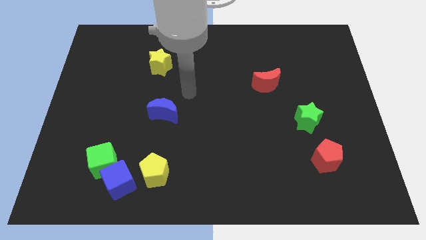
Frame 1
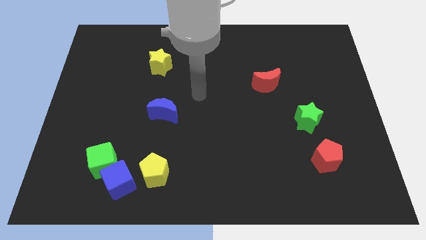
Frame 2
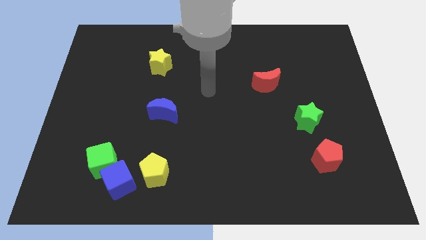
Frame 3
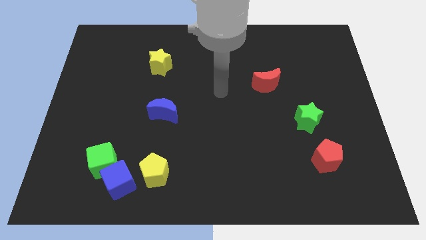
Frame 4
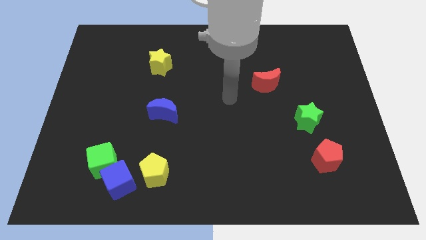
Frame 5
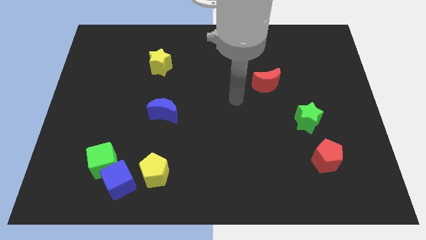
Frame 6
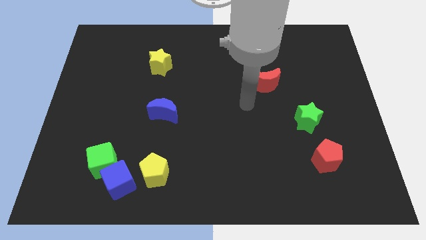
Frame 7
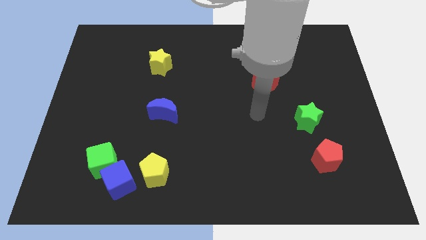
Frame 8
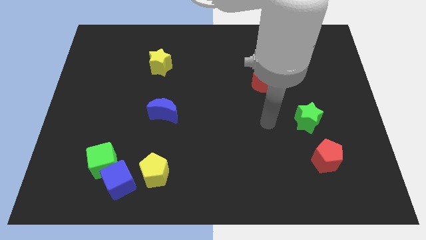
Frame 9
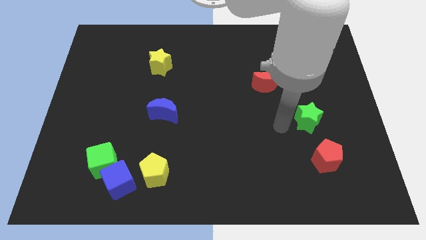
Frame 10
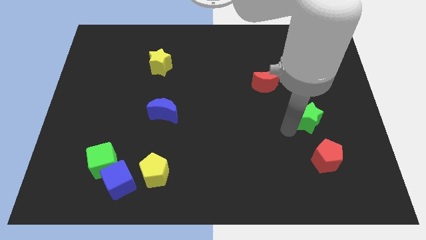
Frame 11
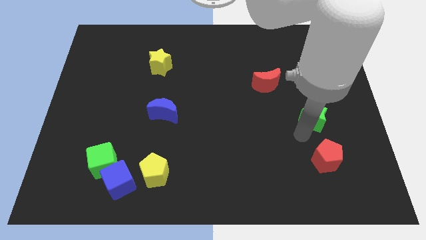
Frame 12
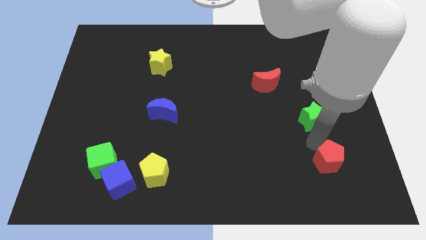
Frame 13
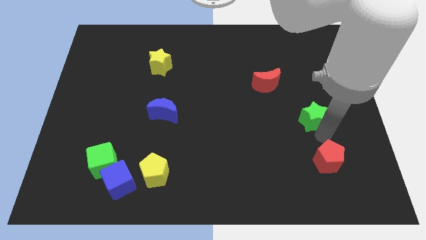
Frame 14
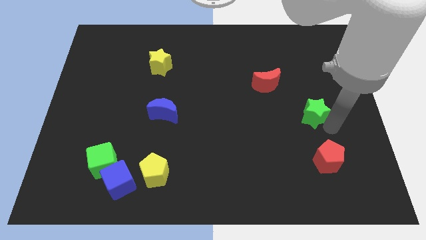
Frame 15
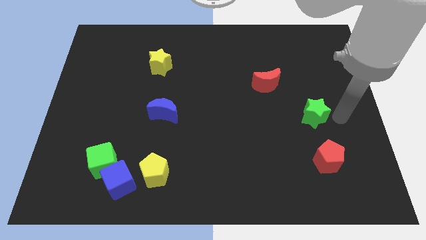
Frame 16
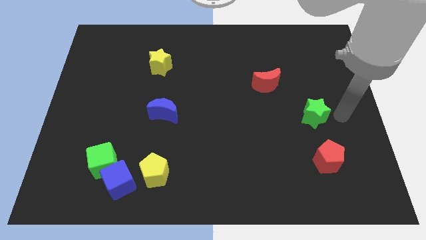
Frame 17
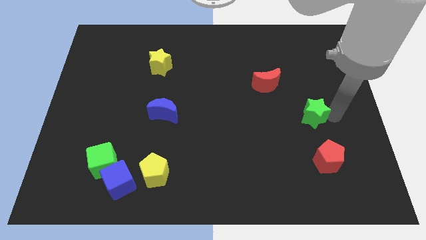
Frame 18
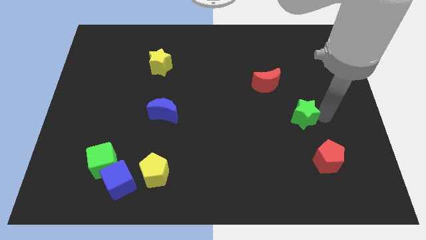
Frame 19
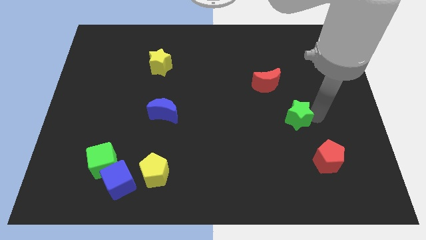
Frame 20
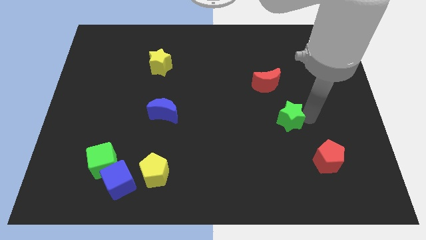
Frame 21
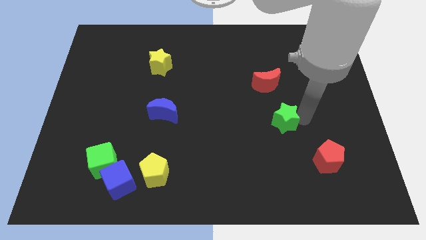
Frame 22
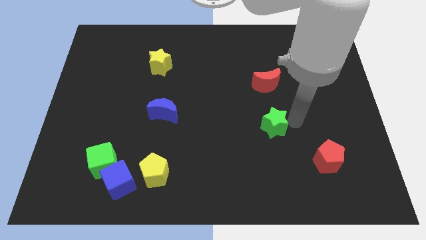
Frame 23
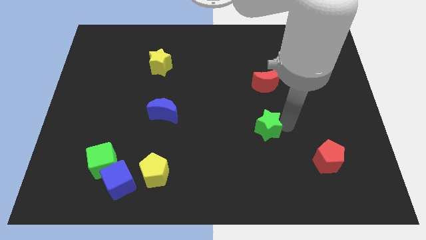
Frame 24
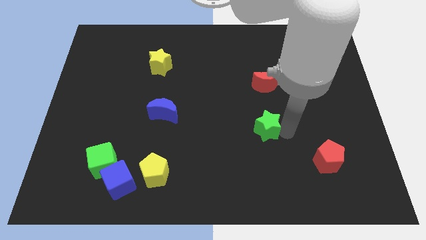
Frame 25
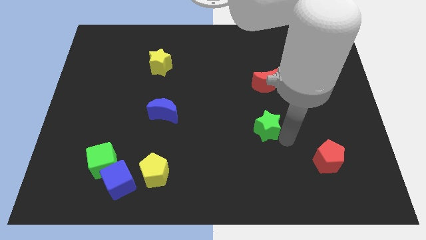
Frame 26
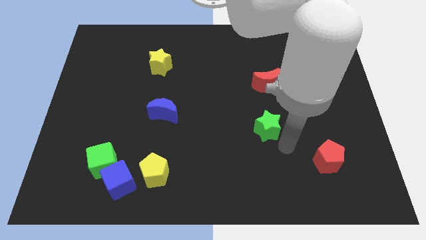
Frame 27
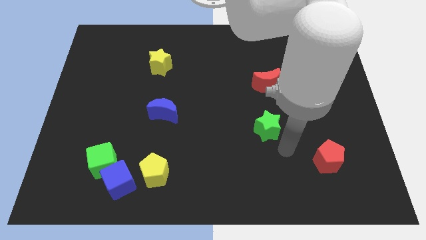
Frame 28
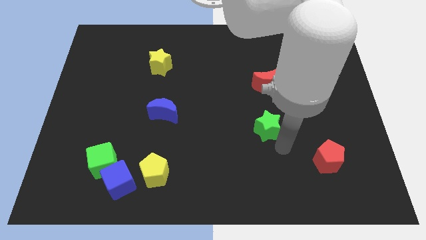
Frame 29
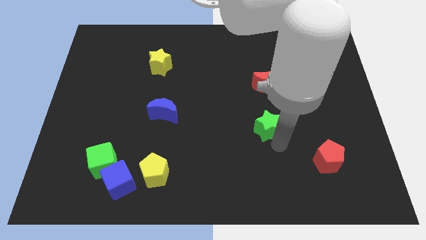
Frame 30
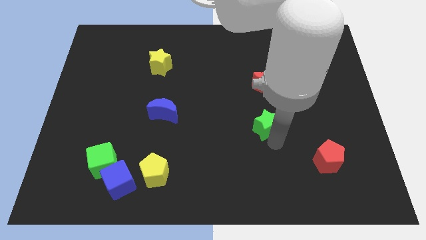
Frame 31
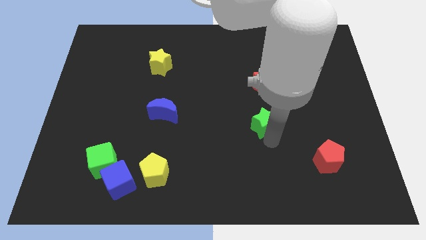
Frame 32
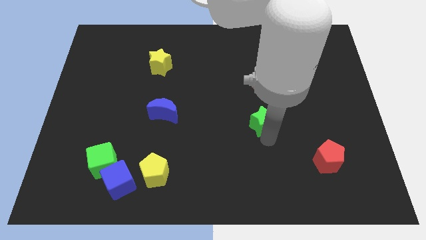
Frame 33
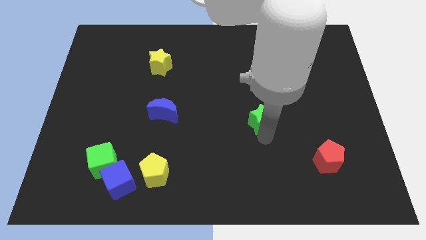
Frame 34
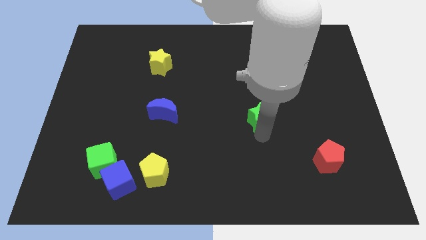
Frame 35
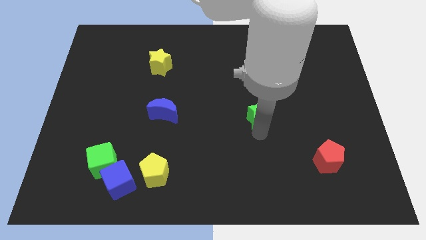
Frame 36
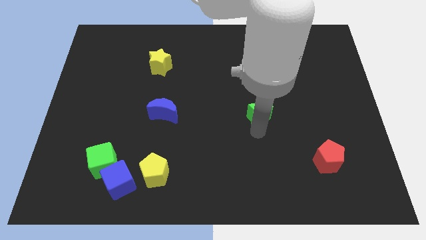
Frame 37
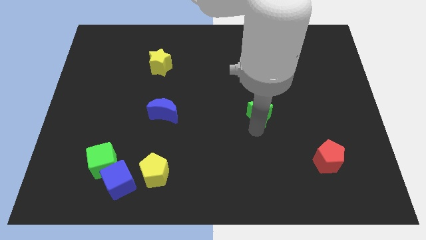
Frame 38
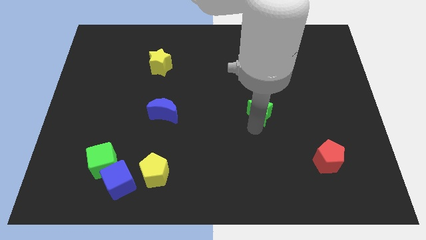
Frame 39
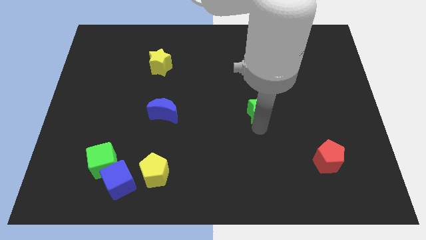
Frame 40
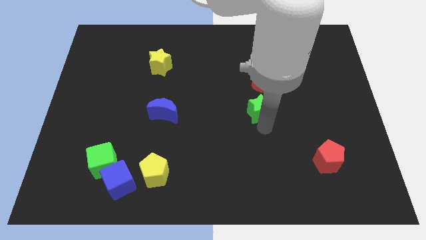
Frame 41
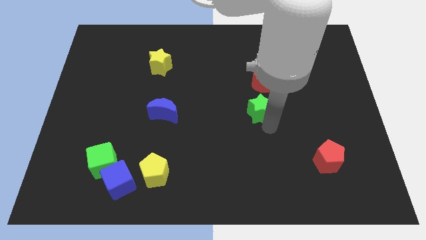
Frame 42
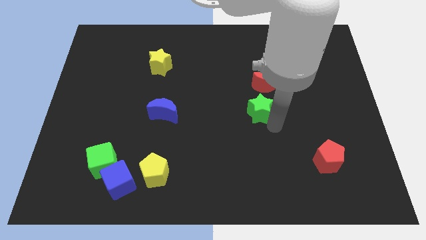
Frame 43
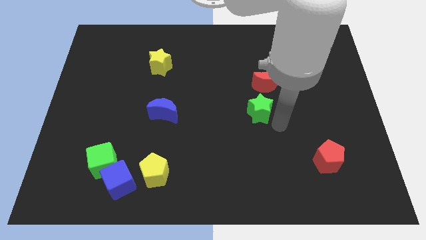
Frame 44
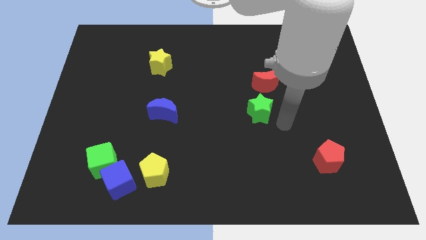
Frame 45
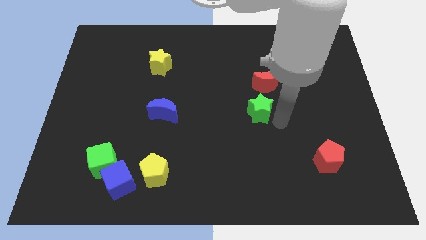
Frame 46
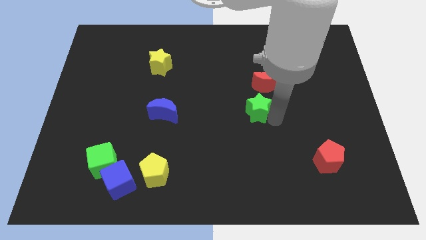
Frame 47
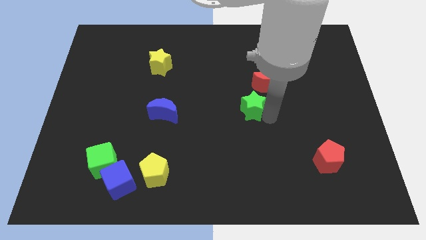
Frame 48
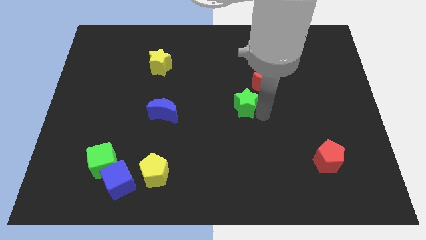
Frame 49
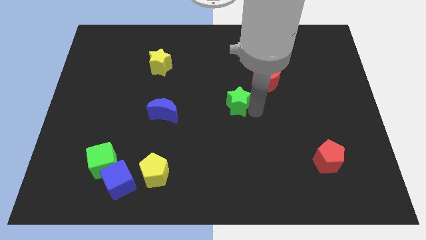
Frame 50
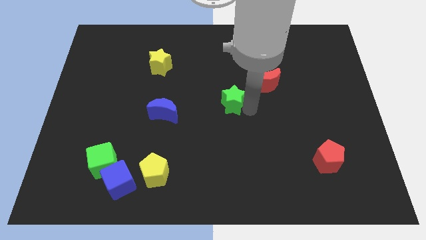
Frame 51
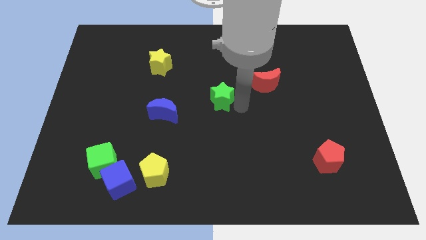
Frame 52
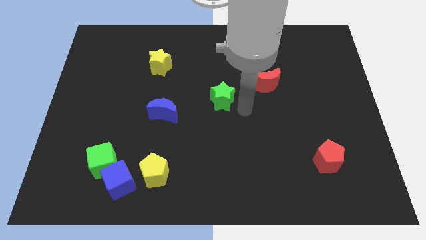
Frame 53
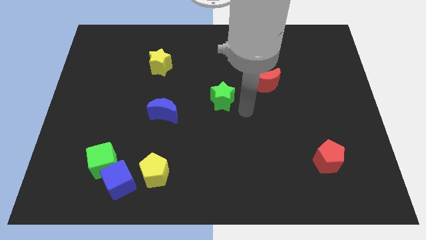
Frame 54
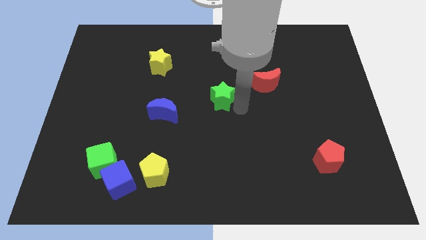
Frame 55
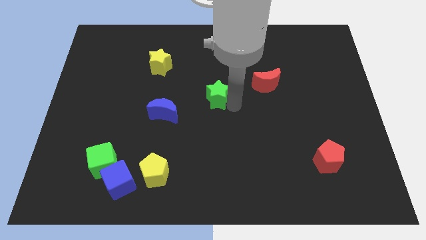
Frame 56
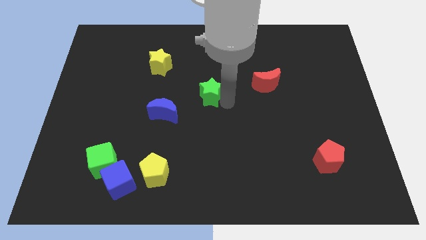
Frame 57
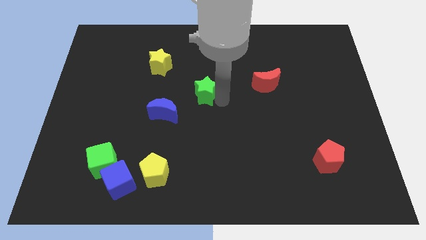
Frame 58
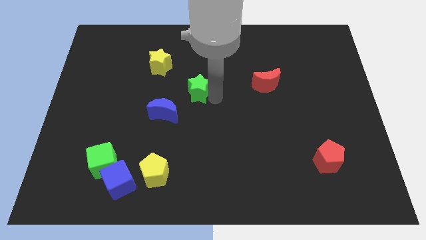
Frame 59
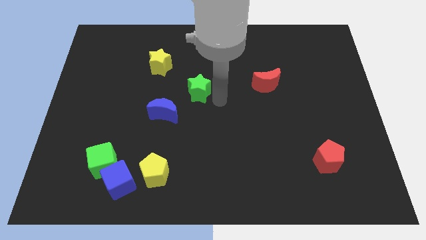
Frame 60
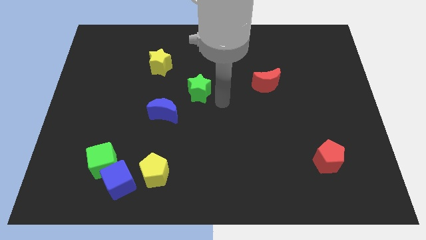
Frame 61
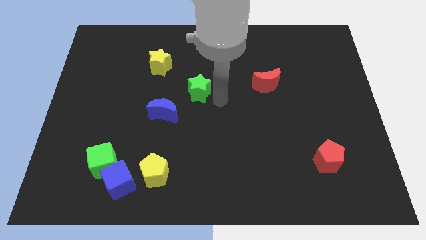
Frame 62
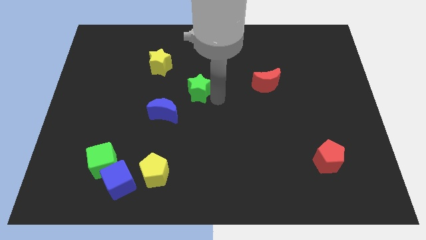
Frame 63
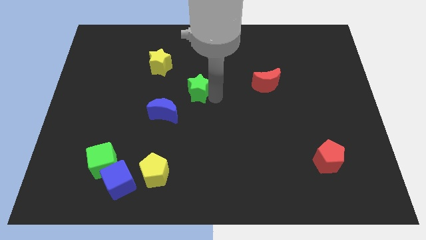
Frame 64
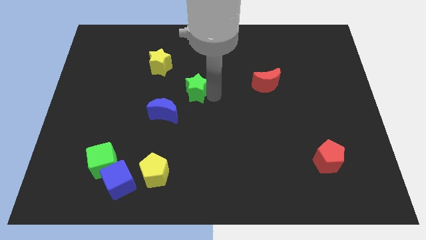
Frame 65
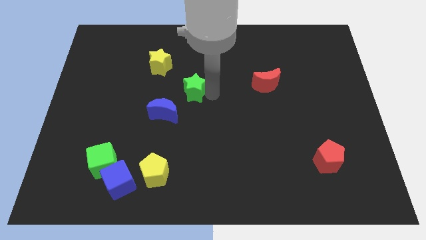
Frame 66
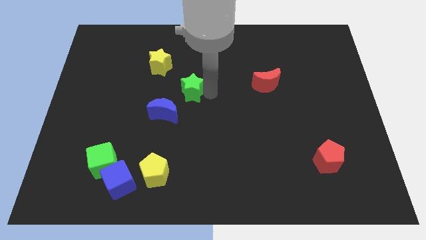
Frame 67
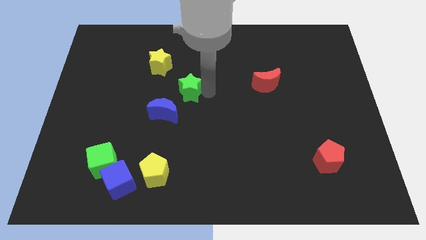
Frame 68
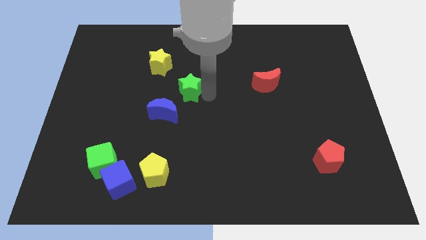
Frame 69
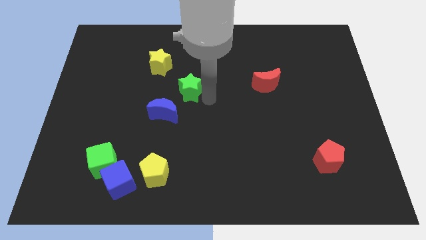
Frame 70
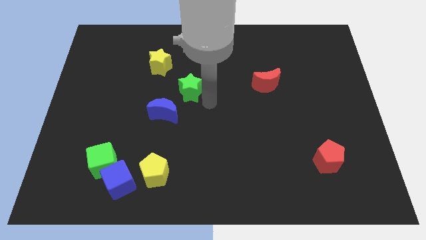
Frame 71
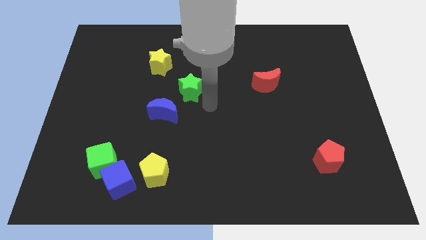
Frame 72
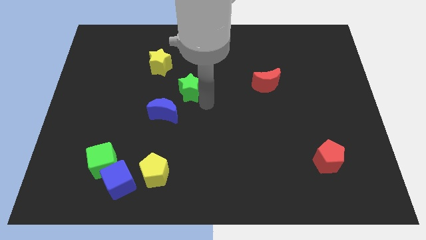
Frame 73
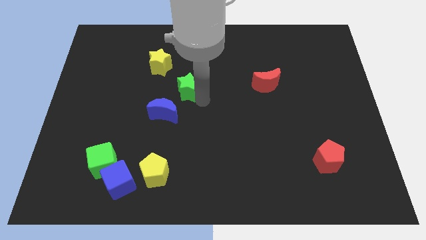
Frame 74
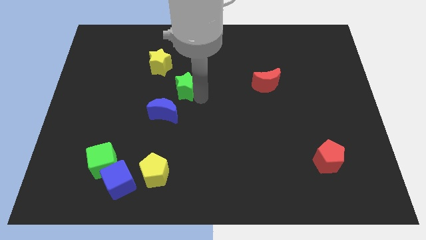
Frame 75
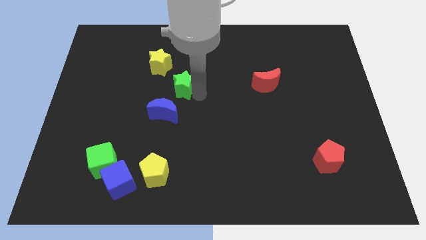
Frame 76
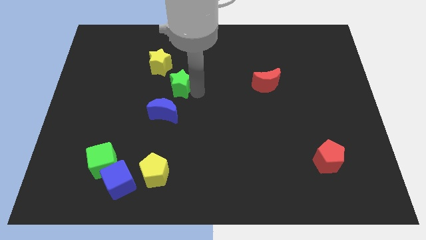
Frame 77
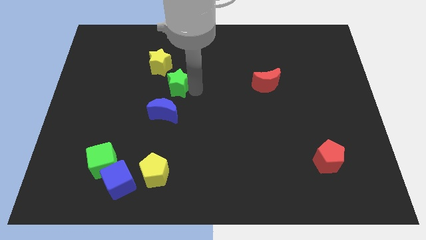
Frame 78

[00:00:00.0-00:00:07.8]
move the green star to the bottom of the yellow star

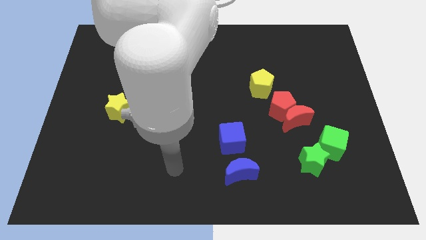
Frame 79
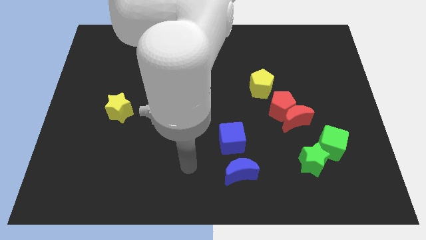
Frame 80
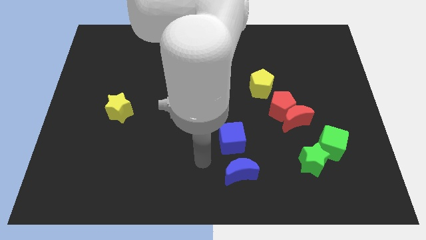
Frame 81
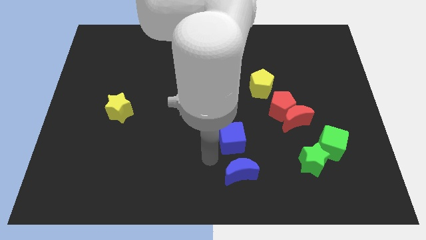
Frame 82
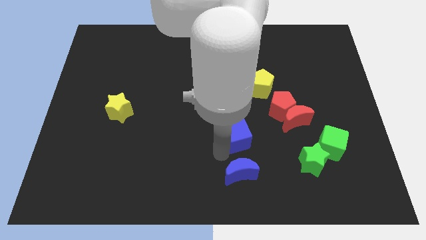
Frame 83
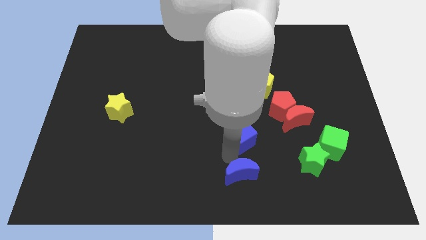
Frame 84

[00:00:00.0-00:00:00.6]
slide the red pentagon to the top right of the blue cube
